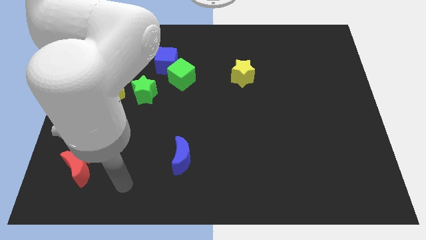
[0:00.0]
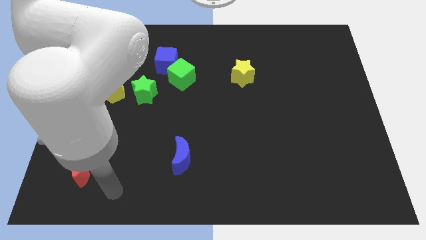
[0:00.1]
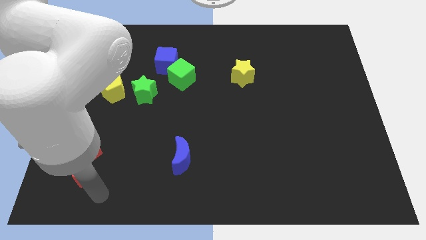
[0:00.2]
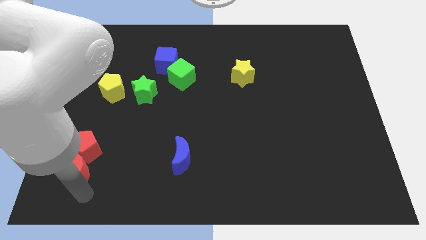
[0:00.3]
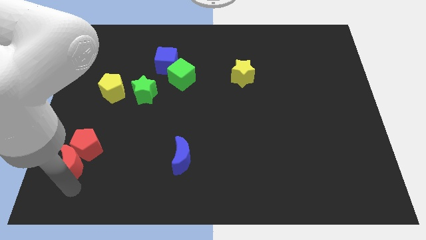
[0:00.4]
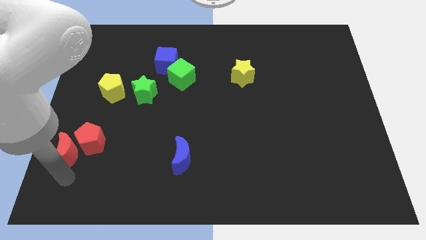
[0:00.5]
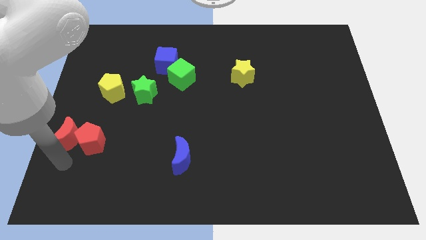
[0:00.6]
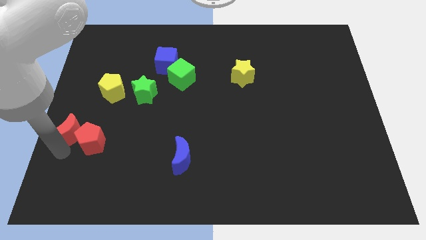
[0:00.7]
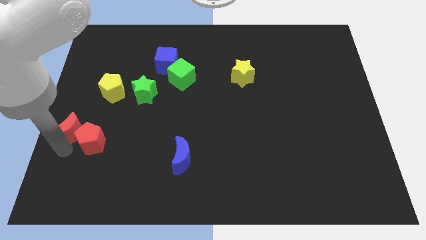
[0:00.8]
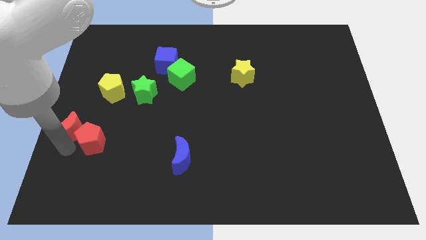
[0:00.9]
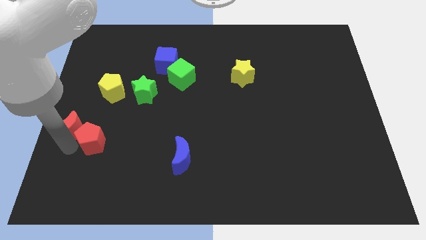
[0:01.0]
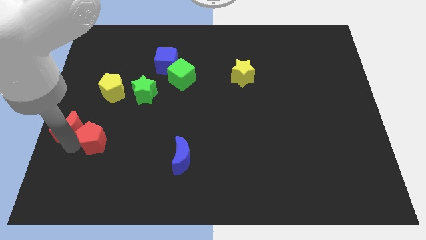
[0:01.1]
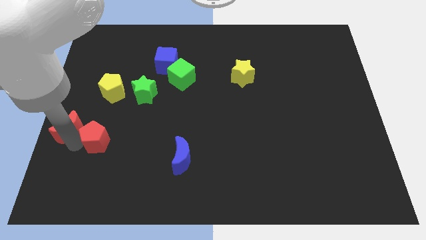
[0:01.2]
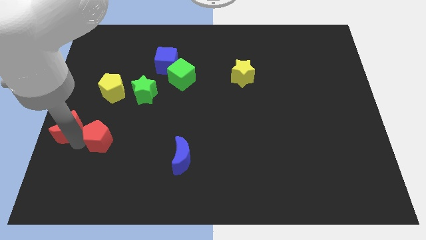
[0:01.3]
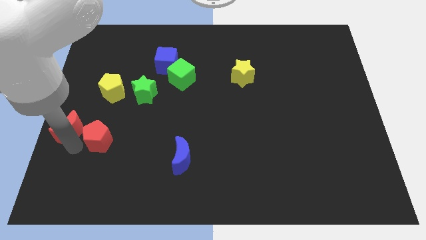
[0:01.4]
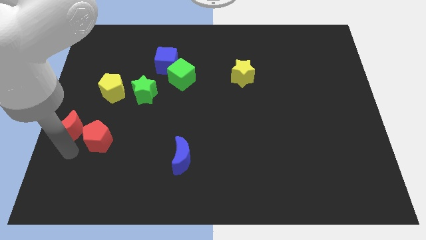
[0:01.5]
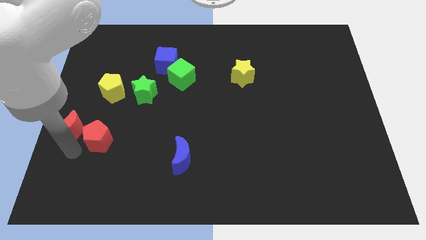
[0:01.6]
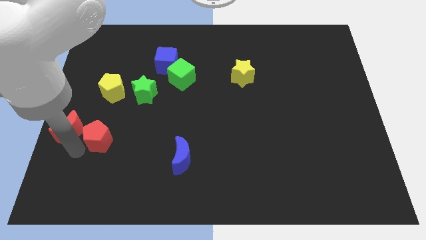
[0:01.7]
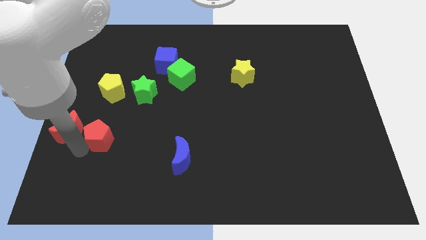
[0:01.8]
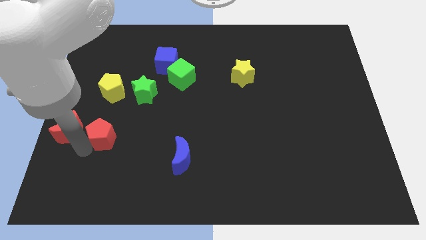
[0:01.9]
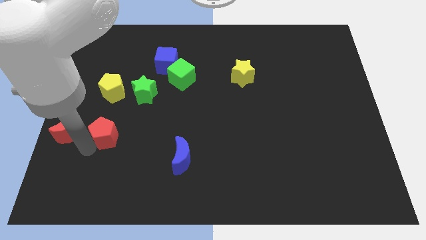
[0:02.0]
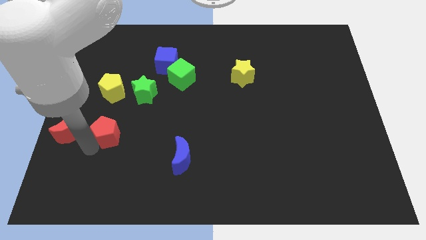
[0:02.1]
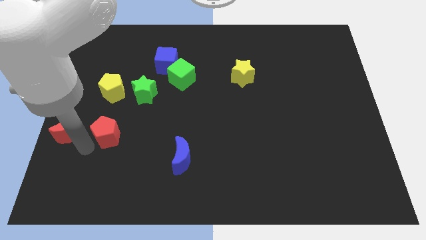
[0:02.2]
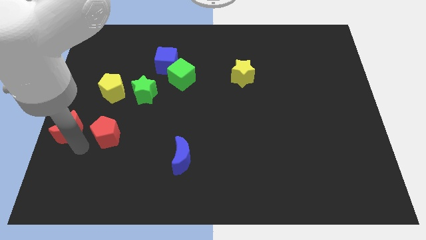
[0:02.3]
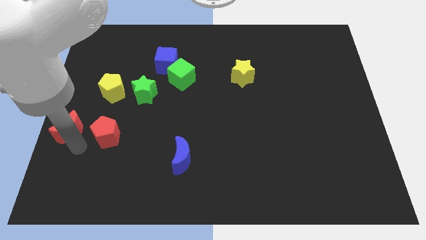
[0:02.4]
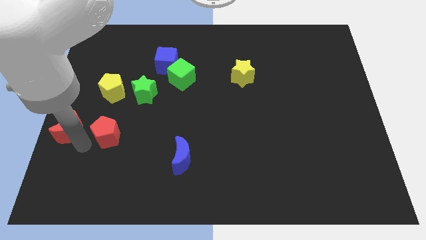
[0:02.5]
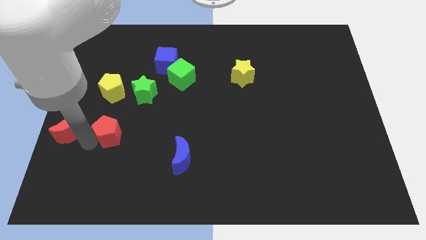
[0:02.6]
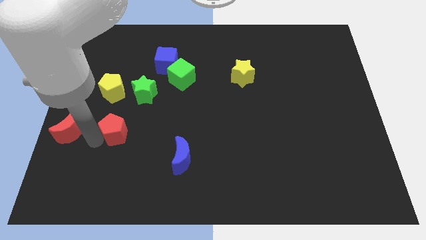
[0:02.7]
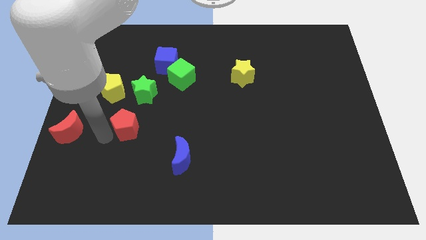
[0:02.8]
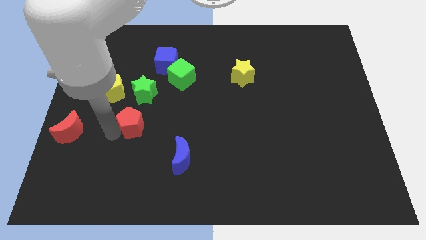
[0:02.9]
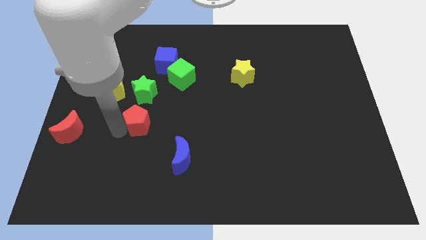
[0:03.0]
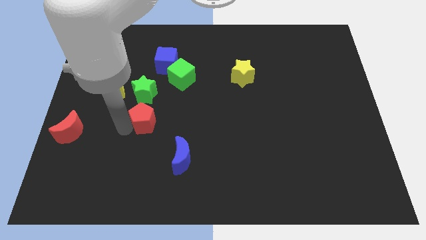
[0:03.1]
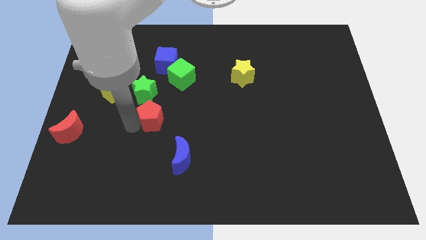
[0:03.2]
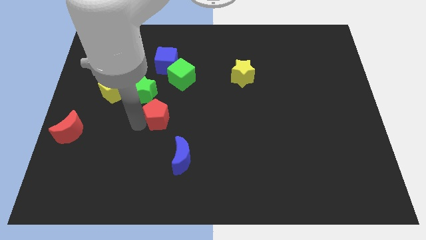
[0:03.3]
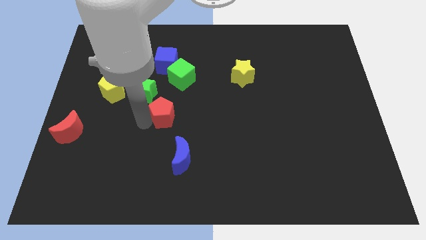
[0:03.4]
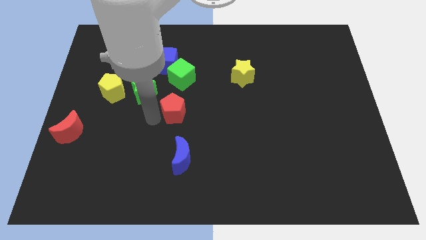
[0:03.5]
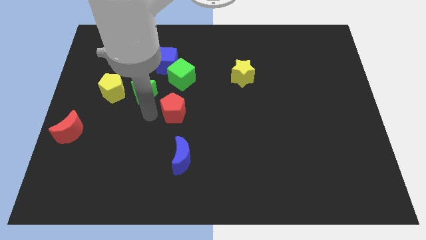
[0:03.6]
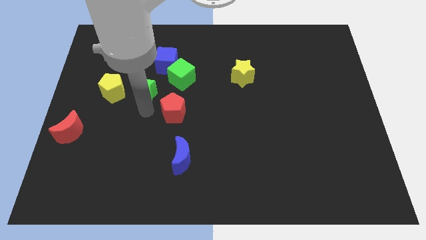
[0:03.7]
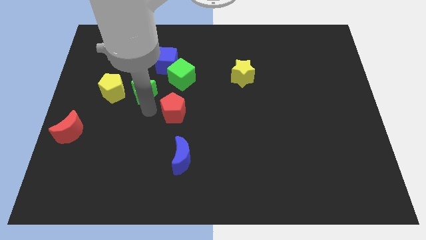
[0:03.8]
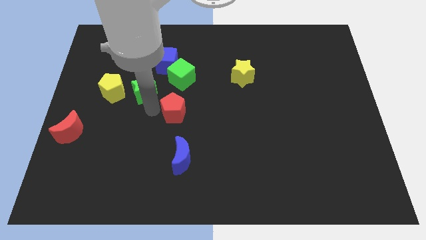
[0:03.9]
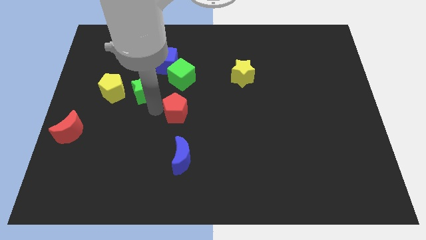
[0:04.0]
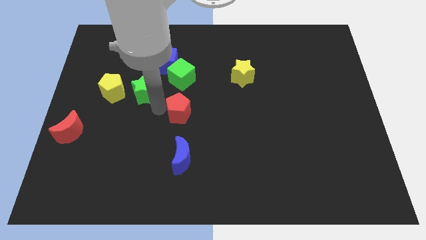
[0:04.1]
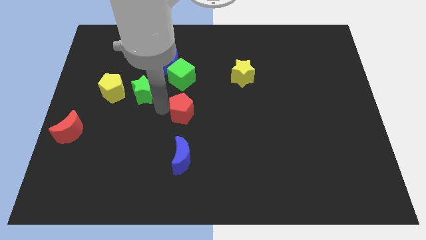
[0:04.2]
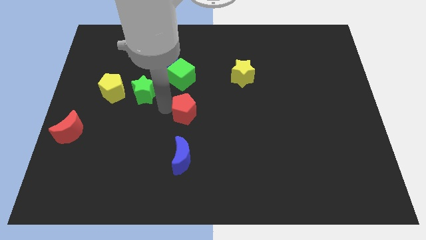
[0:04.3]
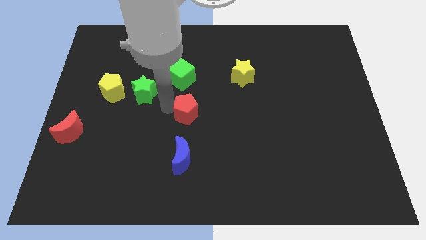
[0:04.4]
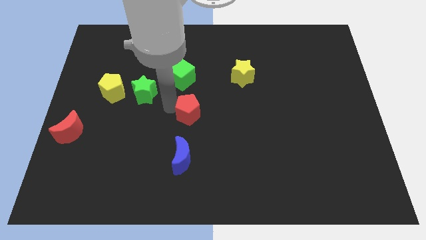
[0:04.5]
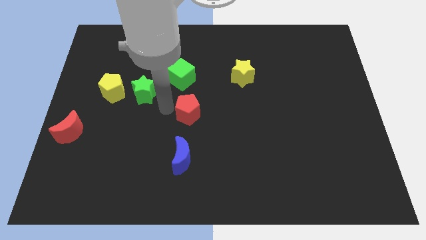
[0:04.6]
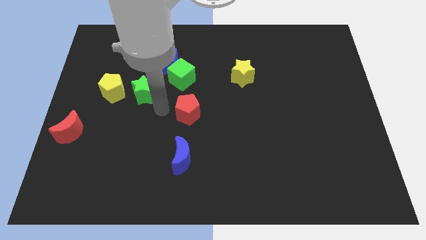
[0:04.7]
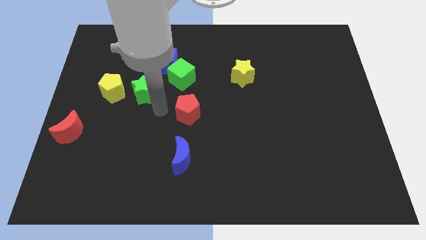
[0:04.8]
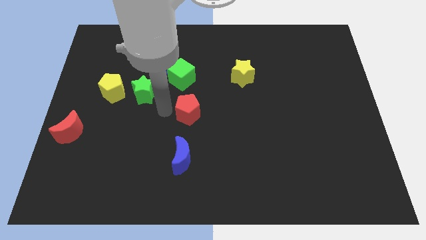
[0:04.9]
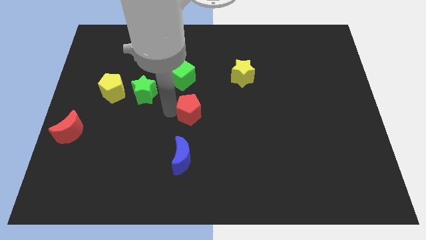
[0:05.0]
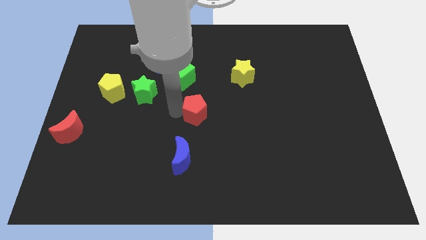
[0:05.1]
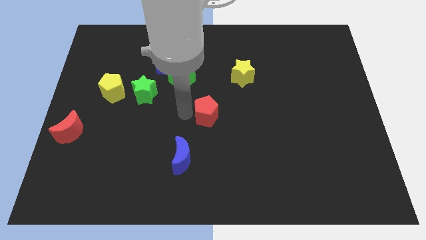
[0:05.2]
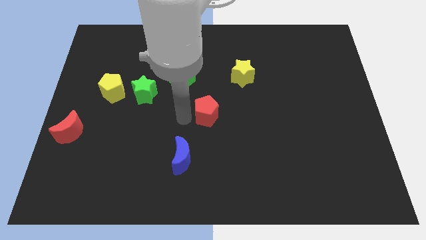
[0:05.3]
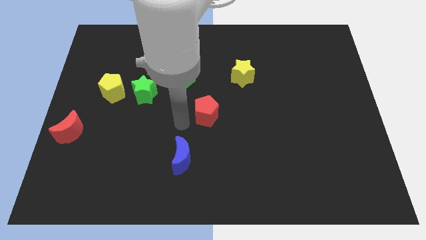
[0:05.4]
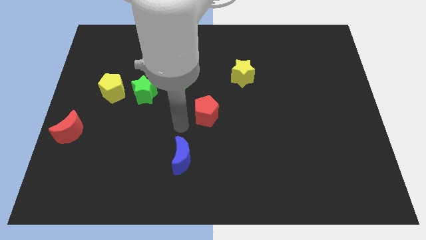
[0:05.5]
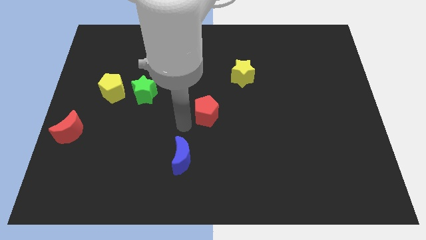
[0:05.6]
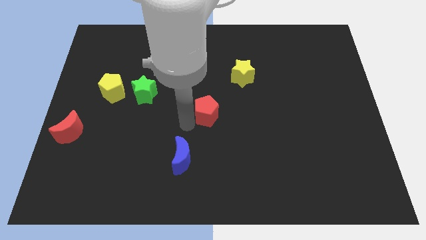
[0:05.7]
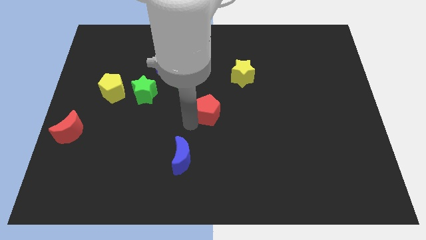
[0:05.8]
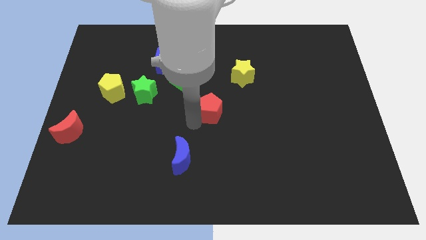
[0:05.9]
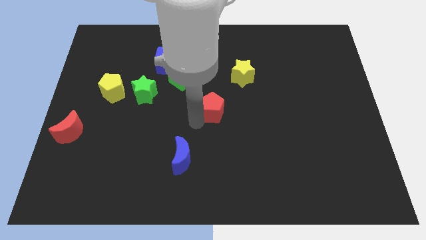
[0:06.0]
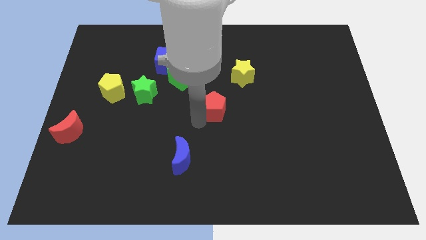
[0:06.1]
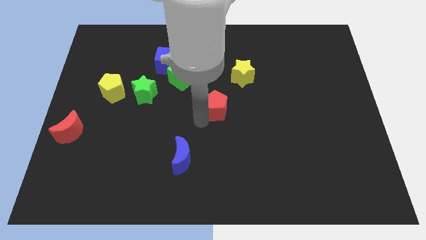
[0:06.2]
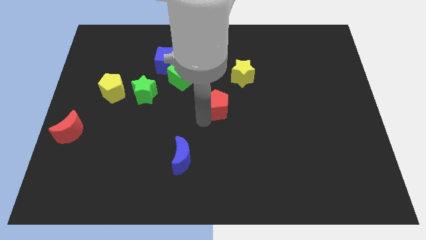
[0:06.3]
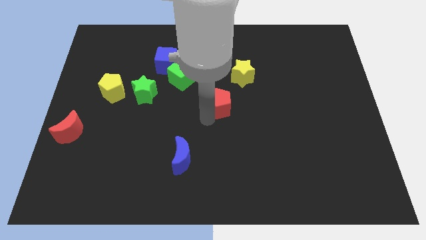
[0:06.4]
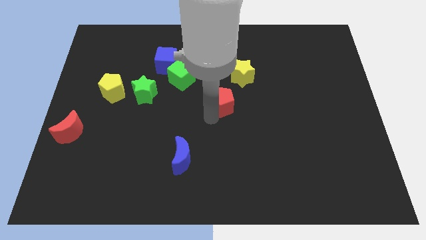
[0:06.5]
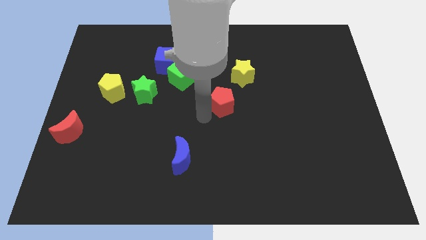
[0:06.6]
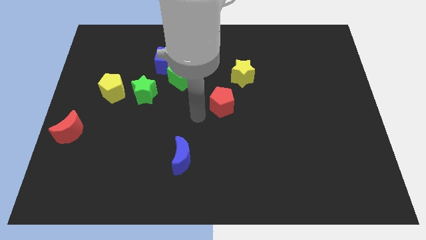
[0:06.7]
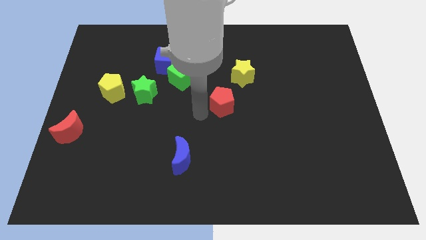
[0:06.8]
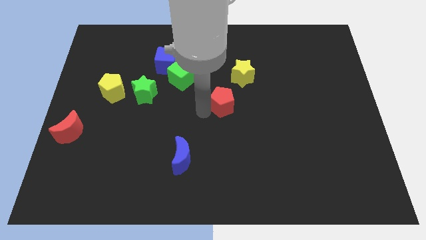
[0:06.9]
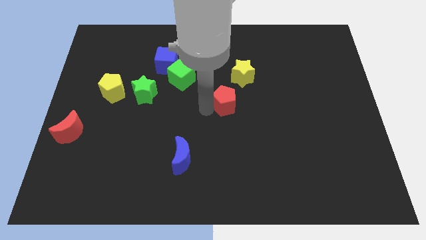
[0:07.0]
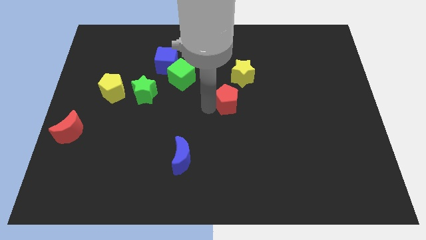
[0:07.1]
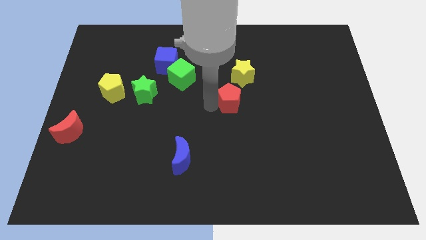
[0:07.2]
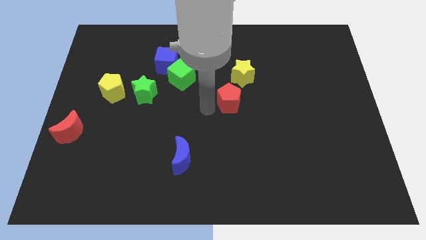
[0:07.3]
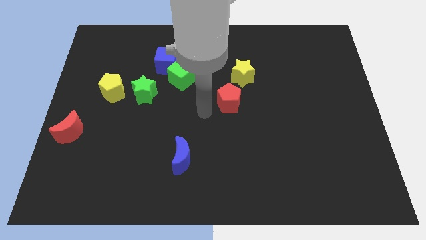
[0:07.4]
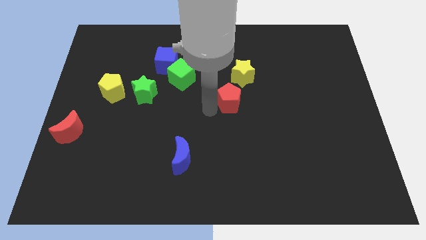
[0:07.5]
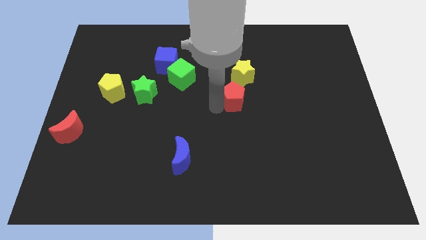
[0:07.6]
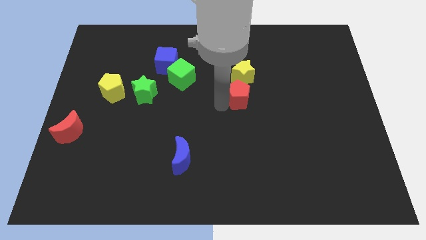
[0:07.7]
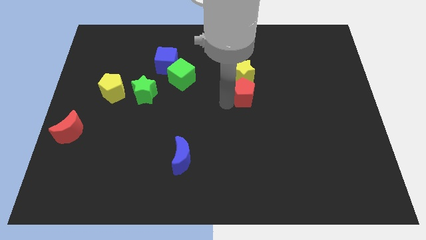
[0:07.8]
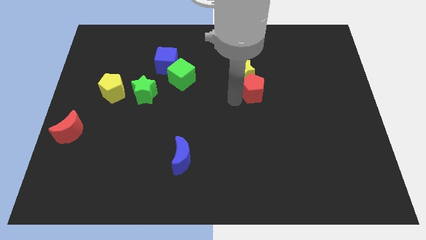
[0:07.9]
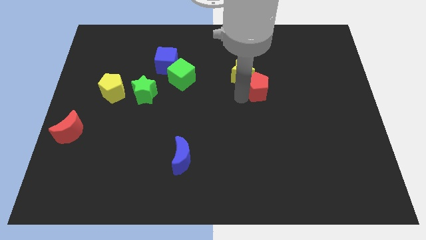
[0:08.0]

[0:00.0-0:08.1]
push the red pentagon just right of the yellow star

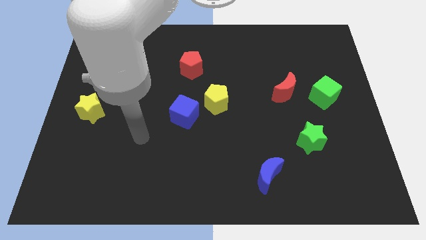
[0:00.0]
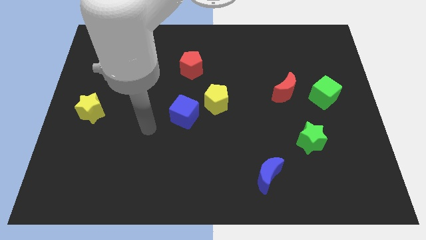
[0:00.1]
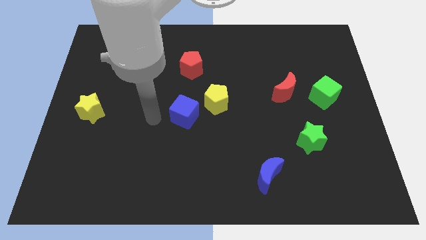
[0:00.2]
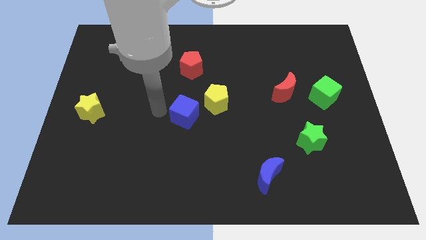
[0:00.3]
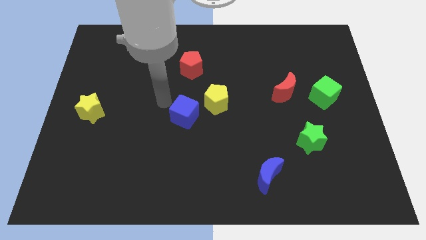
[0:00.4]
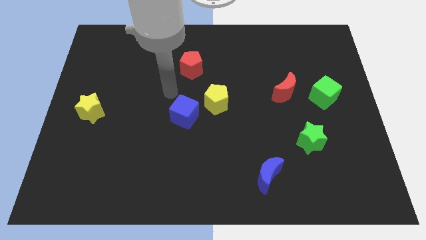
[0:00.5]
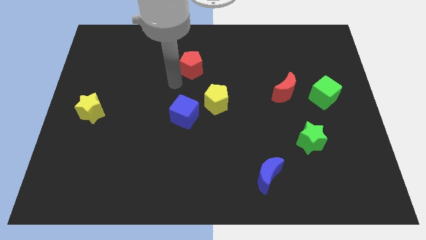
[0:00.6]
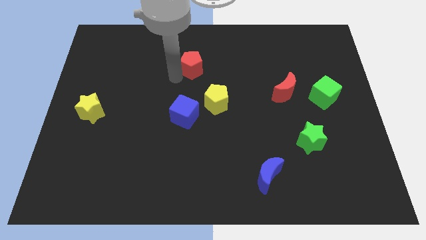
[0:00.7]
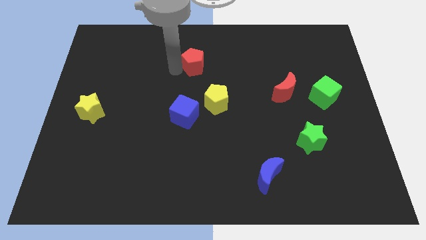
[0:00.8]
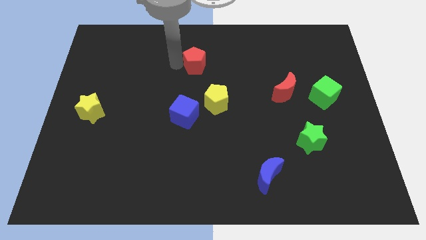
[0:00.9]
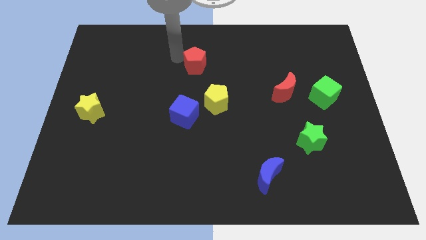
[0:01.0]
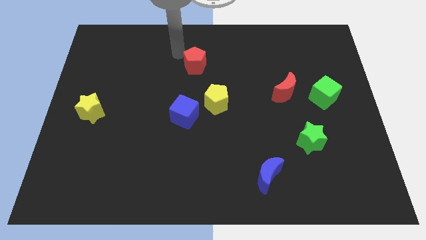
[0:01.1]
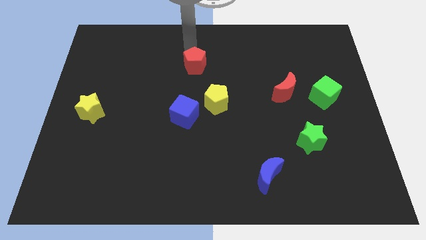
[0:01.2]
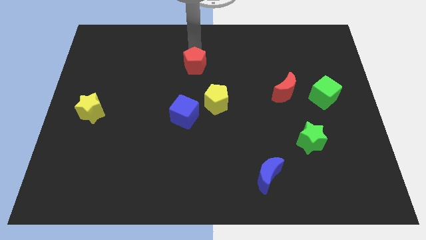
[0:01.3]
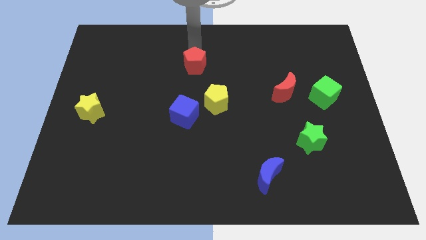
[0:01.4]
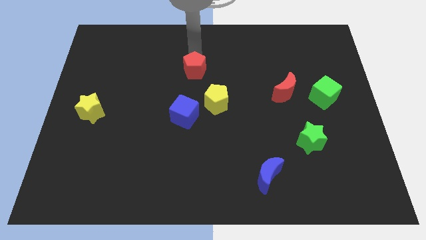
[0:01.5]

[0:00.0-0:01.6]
put the red pentagon to the top left side of the yellow pentagon
